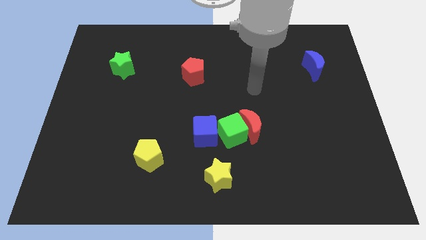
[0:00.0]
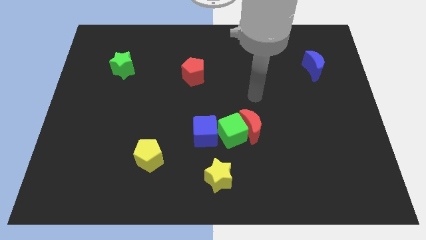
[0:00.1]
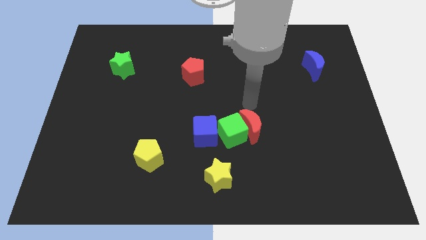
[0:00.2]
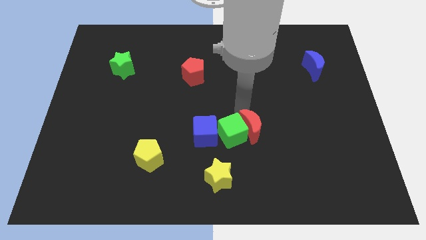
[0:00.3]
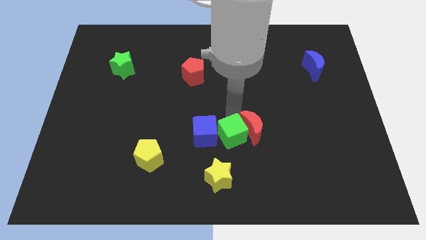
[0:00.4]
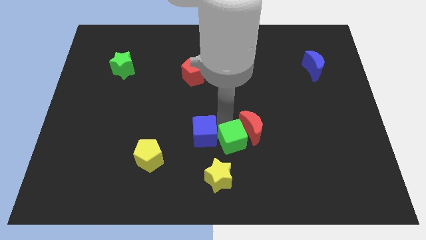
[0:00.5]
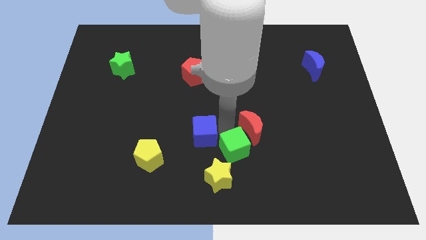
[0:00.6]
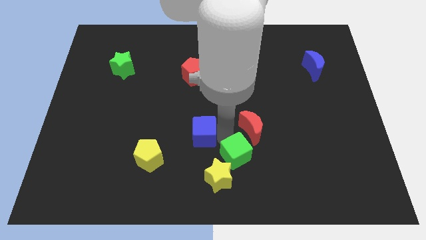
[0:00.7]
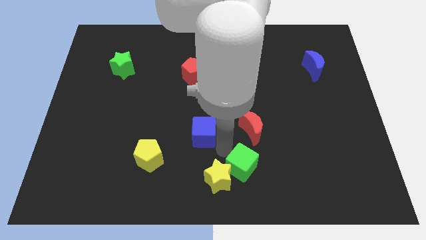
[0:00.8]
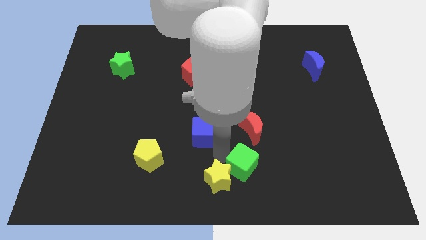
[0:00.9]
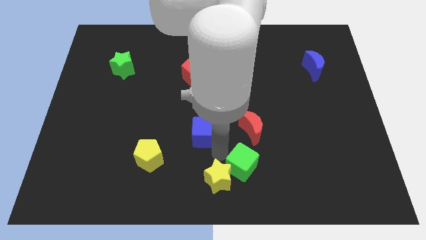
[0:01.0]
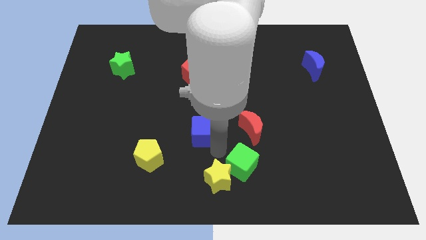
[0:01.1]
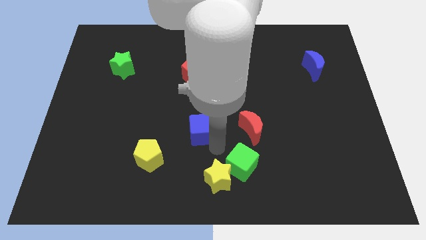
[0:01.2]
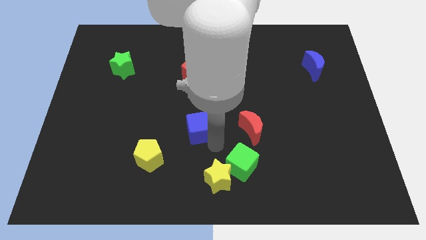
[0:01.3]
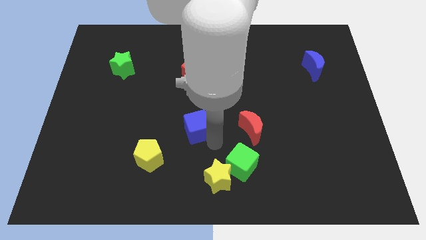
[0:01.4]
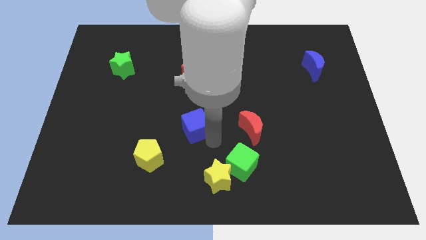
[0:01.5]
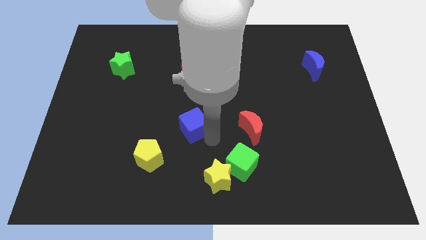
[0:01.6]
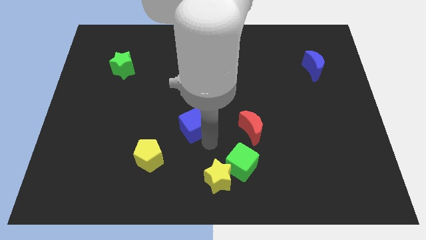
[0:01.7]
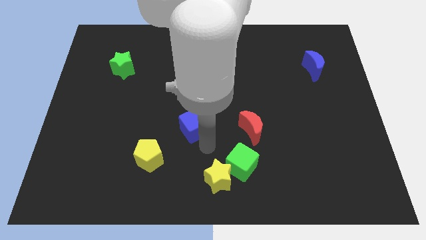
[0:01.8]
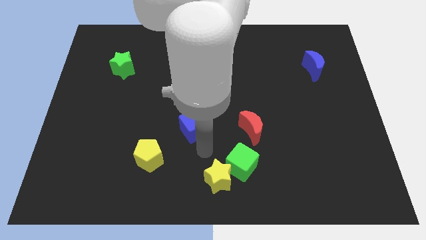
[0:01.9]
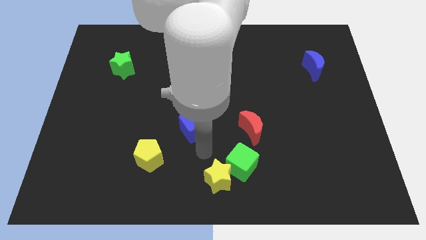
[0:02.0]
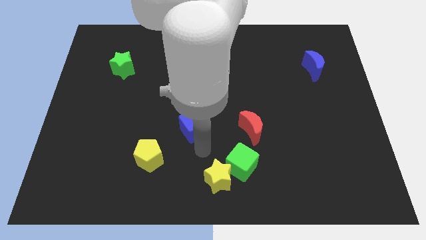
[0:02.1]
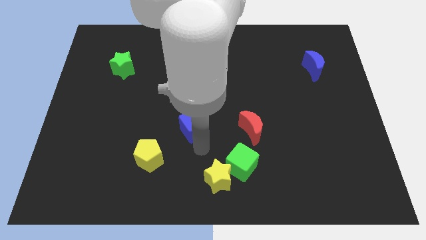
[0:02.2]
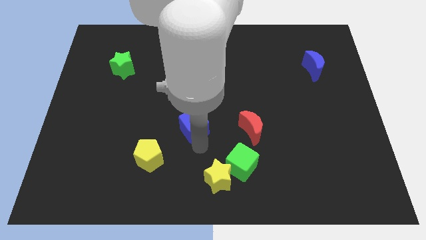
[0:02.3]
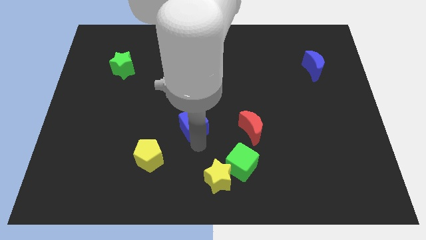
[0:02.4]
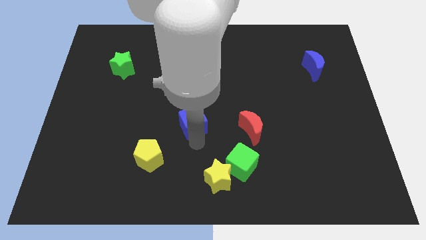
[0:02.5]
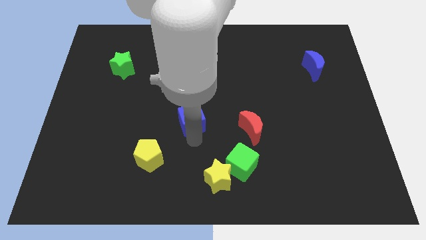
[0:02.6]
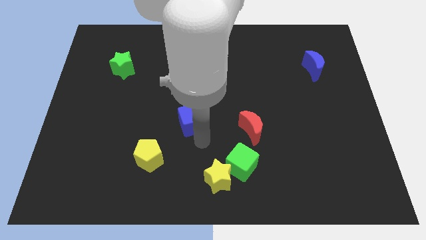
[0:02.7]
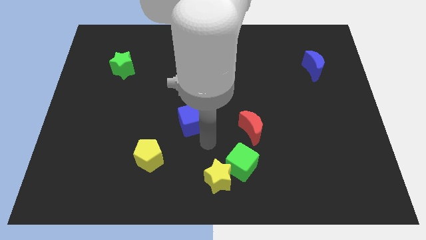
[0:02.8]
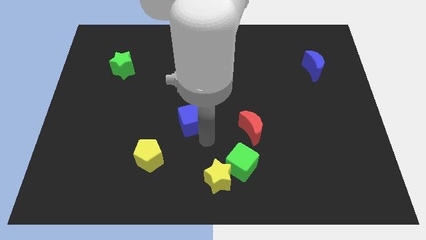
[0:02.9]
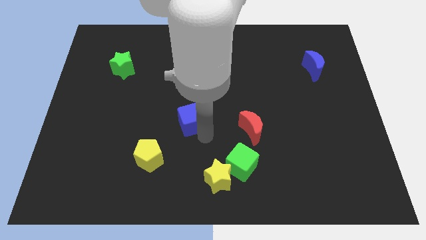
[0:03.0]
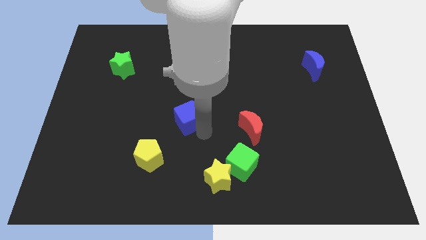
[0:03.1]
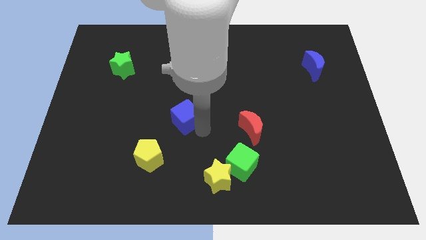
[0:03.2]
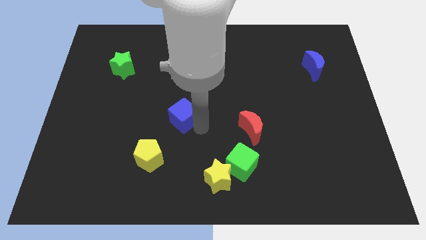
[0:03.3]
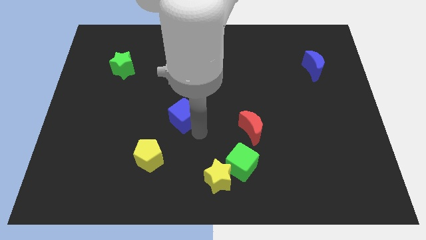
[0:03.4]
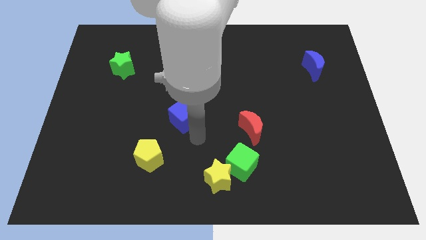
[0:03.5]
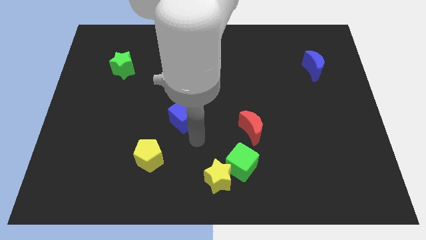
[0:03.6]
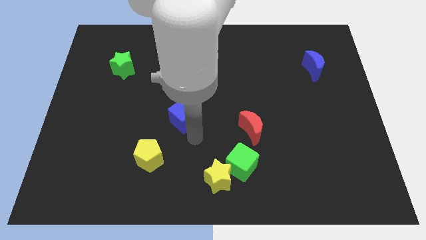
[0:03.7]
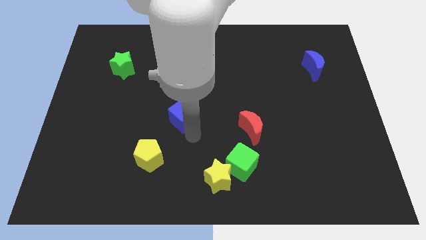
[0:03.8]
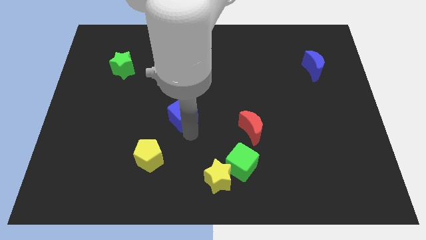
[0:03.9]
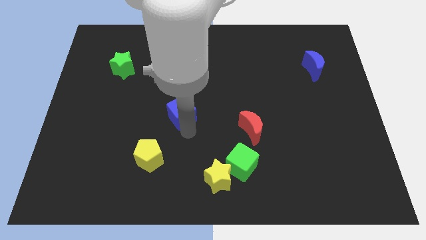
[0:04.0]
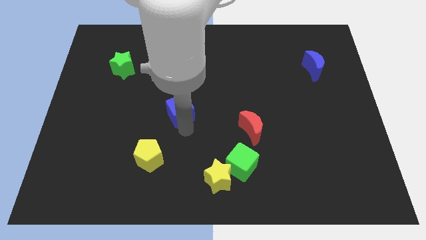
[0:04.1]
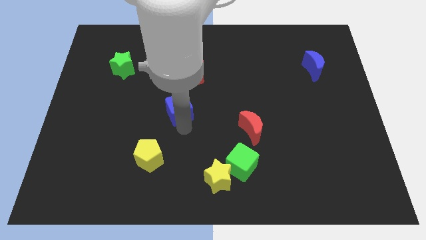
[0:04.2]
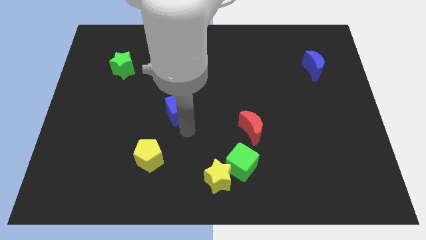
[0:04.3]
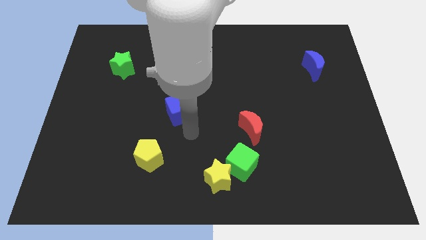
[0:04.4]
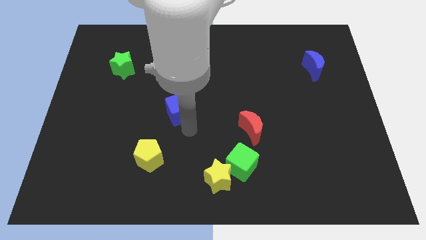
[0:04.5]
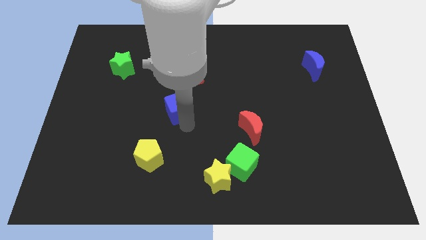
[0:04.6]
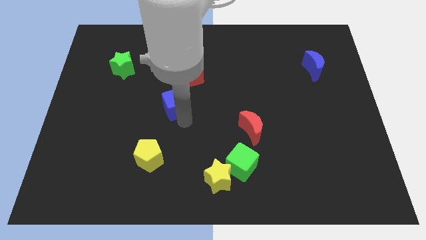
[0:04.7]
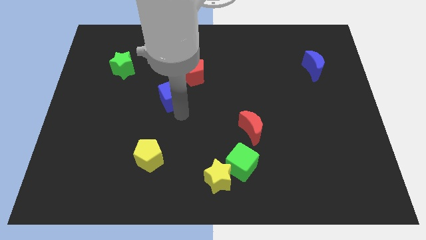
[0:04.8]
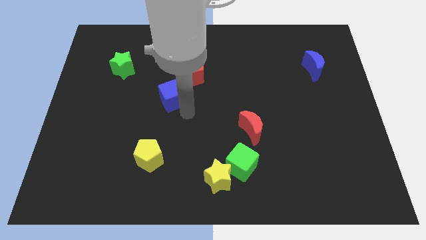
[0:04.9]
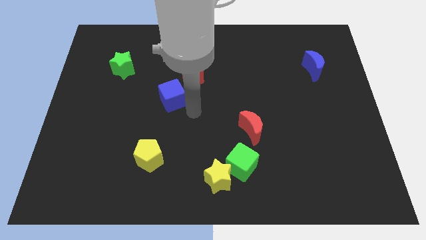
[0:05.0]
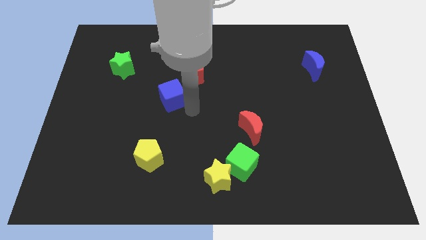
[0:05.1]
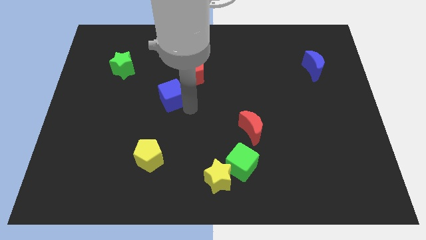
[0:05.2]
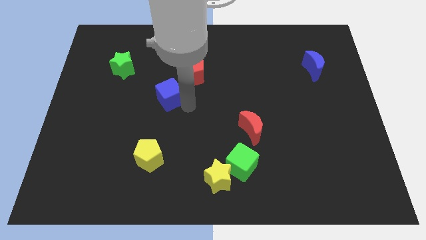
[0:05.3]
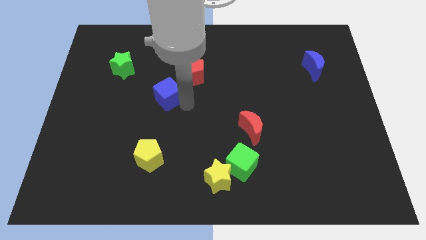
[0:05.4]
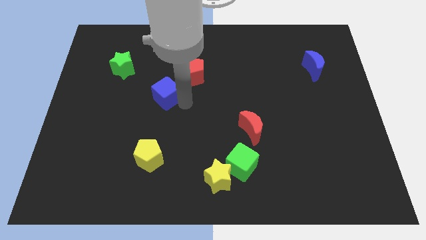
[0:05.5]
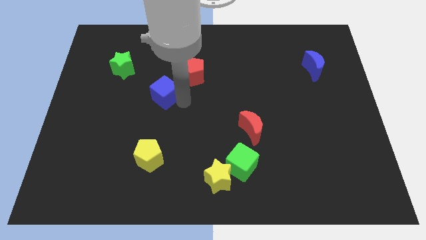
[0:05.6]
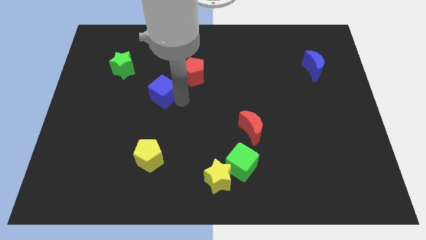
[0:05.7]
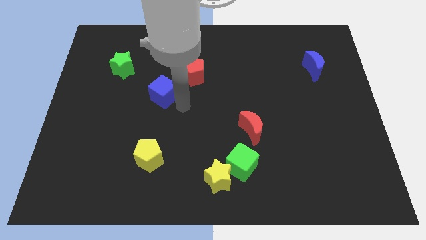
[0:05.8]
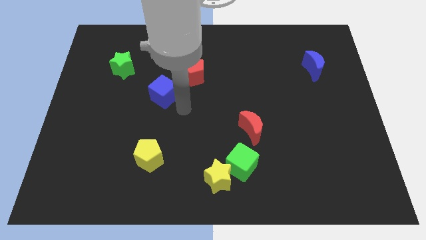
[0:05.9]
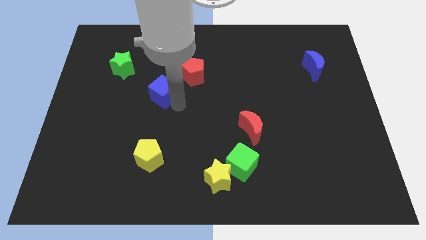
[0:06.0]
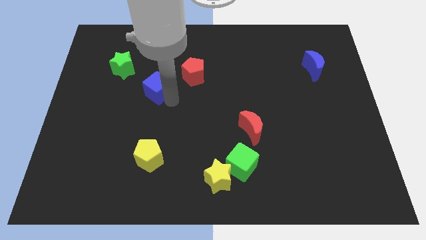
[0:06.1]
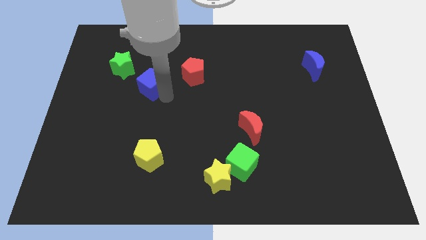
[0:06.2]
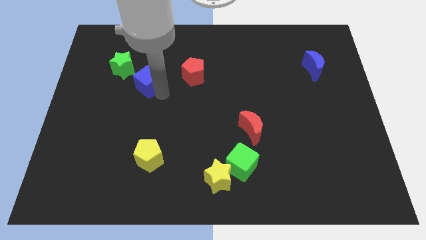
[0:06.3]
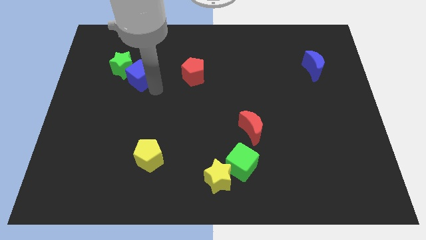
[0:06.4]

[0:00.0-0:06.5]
push the blue cube close to the green star

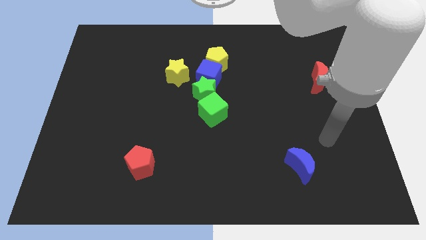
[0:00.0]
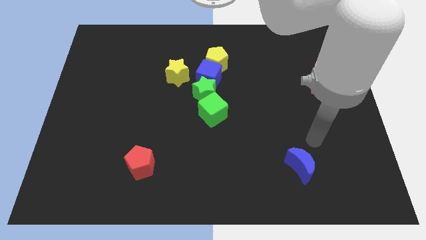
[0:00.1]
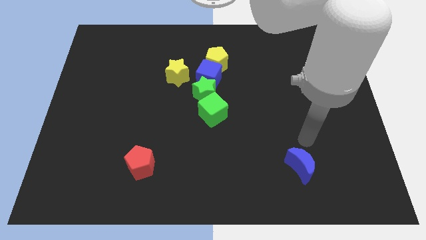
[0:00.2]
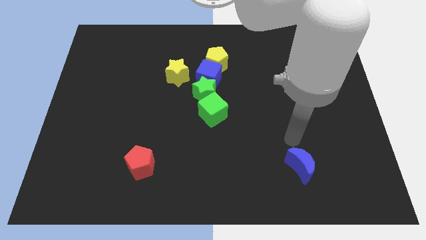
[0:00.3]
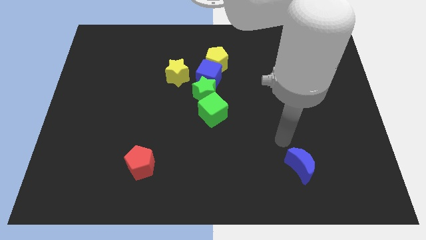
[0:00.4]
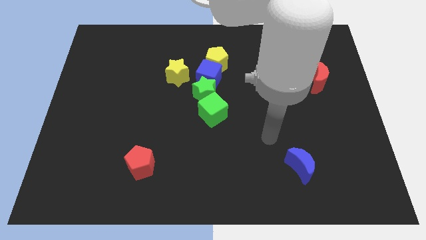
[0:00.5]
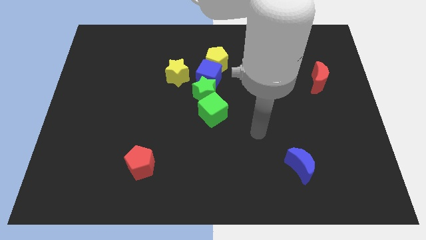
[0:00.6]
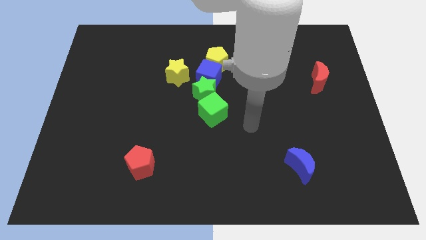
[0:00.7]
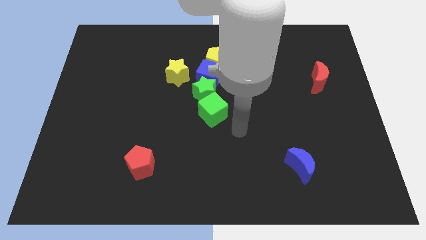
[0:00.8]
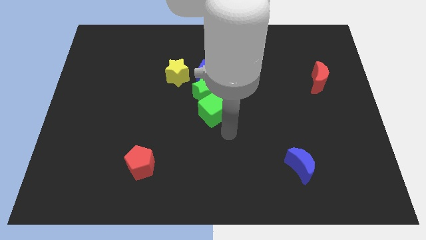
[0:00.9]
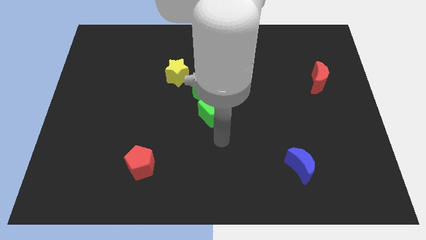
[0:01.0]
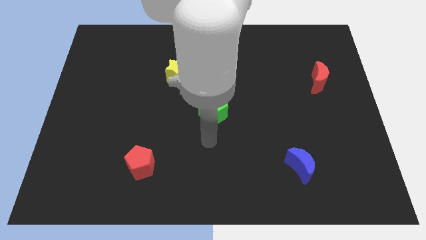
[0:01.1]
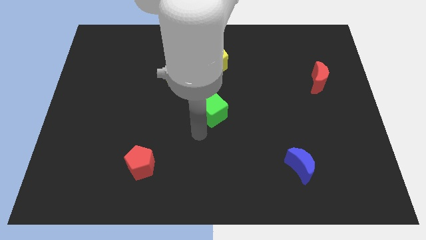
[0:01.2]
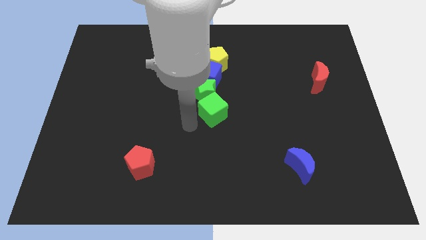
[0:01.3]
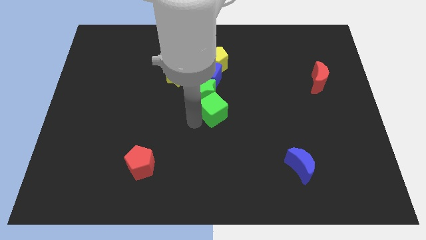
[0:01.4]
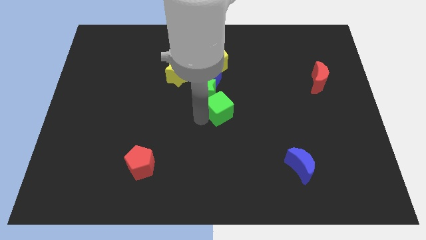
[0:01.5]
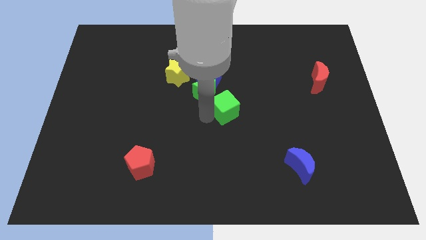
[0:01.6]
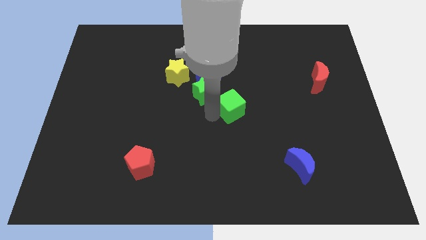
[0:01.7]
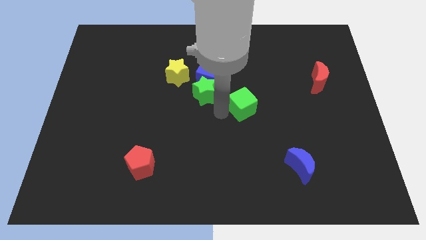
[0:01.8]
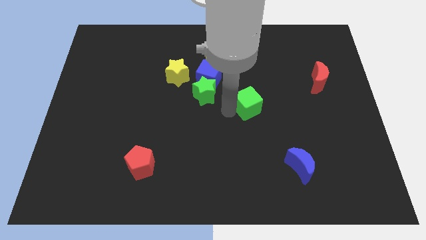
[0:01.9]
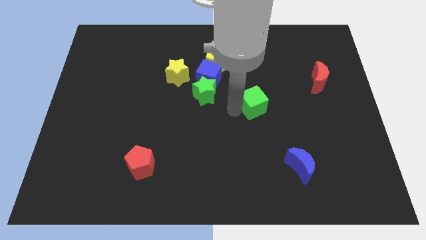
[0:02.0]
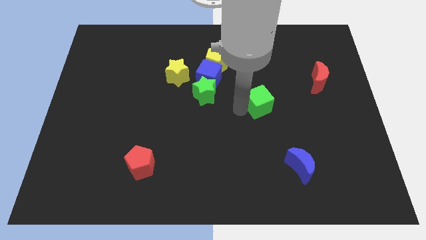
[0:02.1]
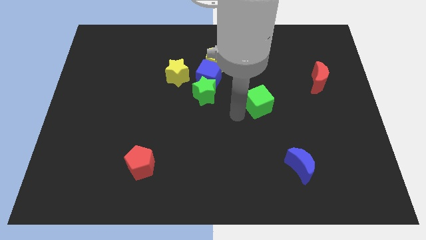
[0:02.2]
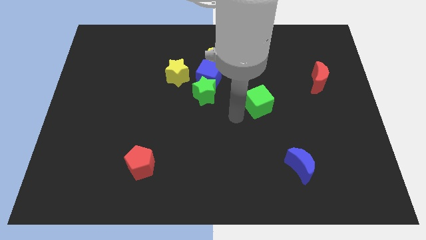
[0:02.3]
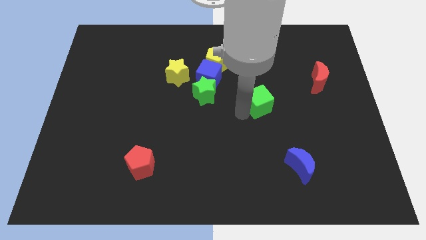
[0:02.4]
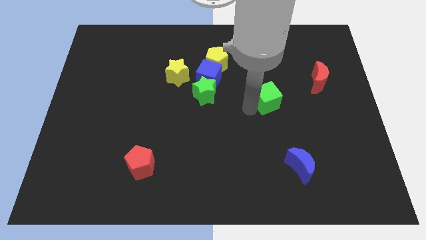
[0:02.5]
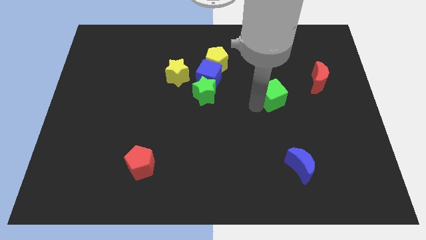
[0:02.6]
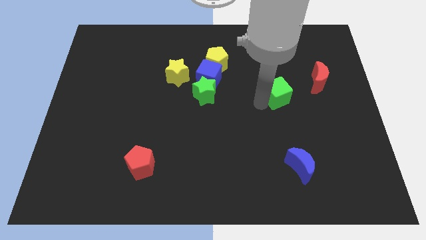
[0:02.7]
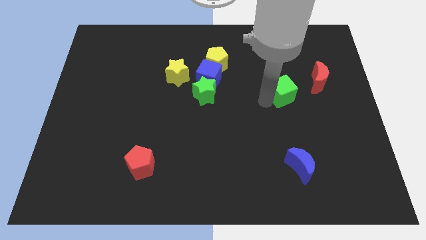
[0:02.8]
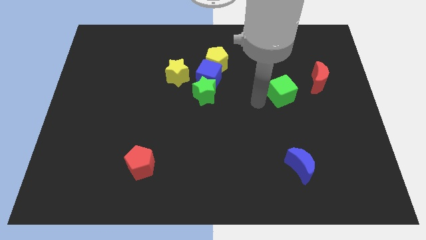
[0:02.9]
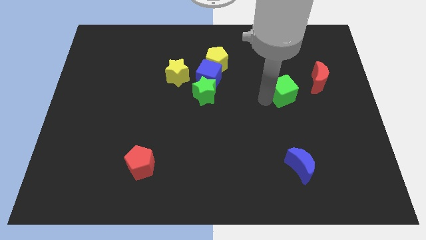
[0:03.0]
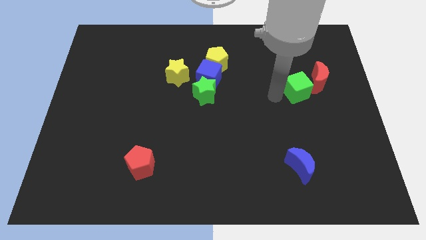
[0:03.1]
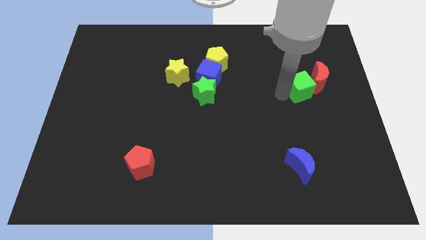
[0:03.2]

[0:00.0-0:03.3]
slide the green cube close to the red moon
